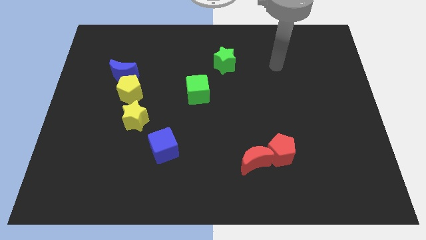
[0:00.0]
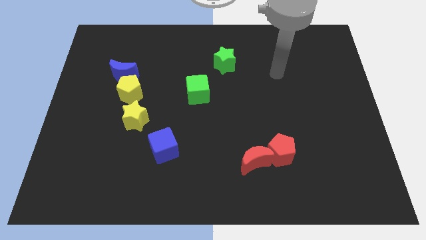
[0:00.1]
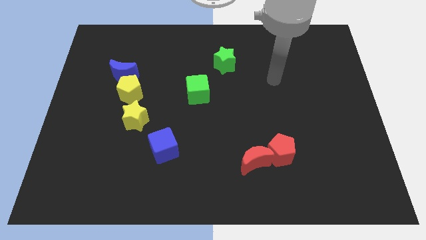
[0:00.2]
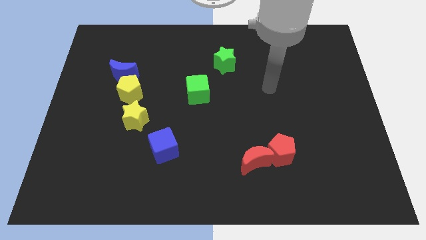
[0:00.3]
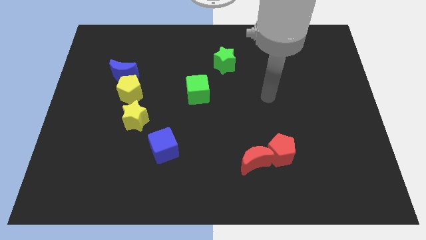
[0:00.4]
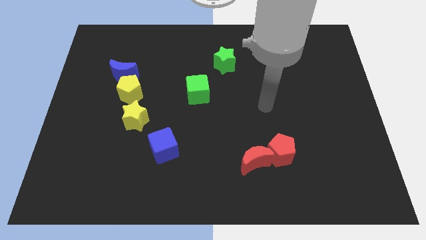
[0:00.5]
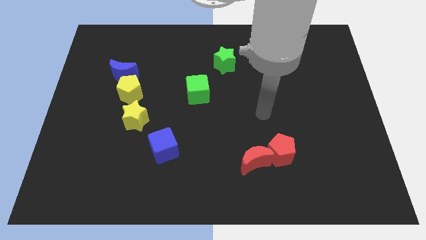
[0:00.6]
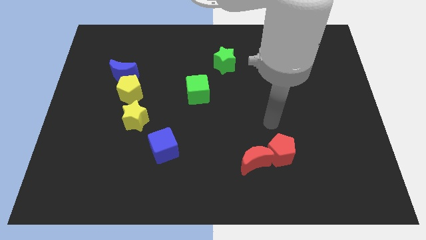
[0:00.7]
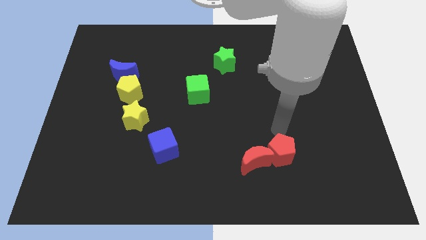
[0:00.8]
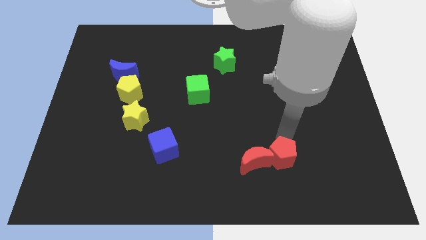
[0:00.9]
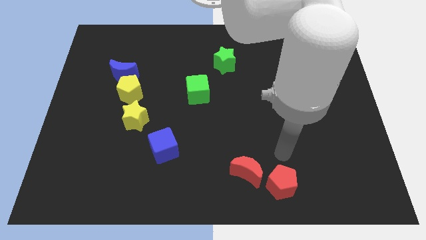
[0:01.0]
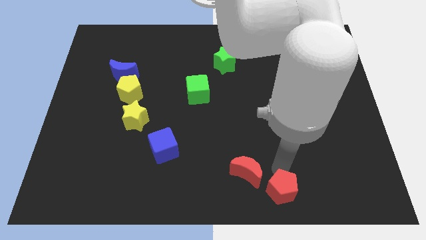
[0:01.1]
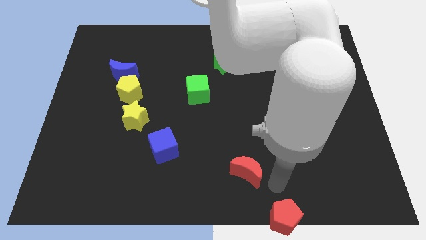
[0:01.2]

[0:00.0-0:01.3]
move the red moon away from the red pentagon

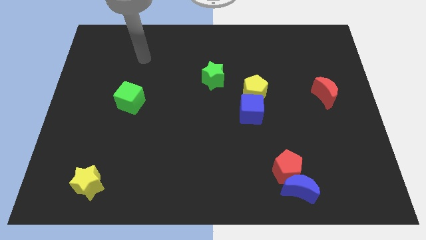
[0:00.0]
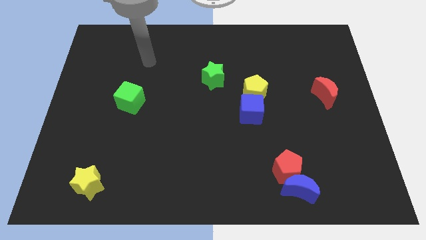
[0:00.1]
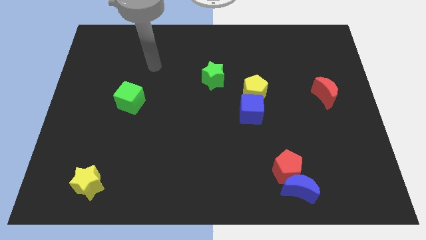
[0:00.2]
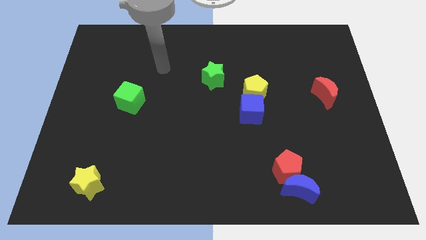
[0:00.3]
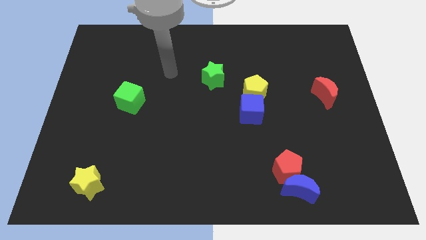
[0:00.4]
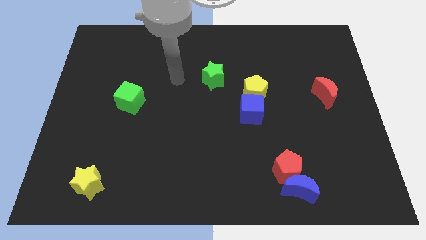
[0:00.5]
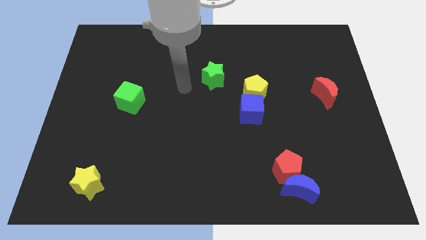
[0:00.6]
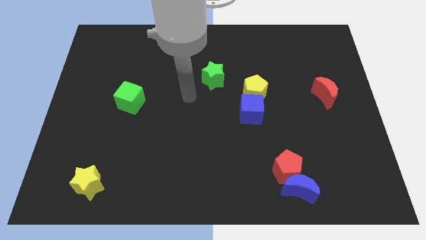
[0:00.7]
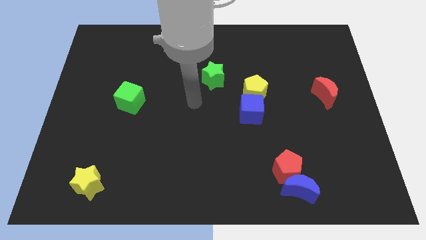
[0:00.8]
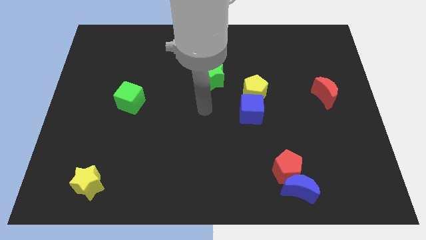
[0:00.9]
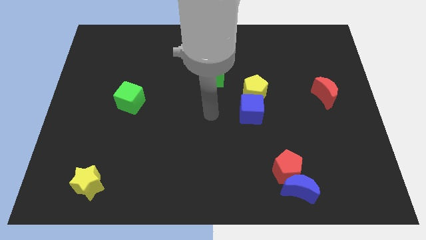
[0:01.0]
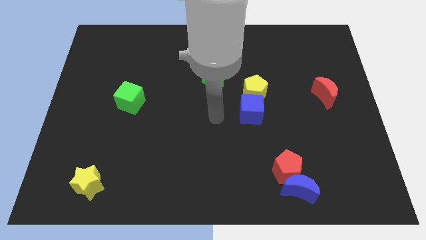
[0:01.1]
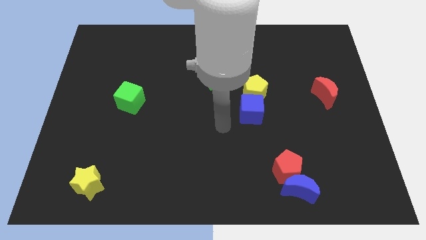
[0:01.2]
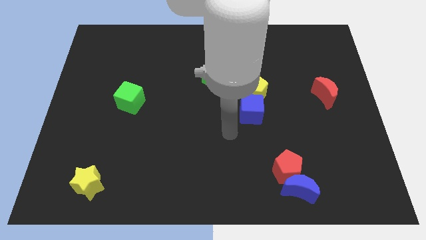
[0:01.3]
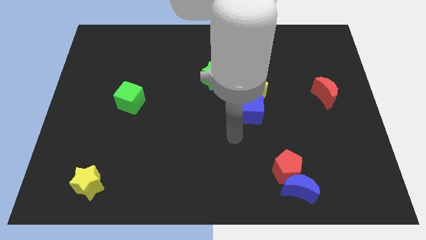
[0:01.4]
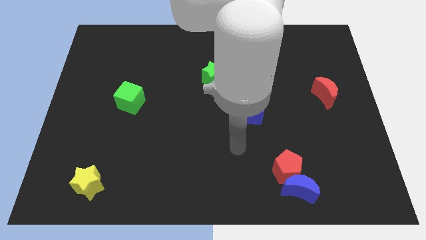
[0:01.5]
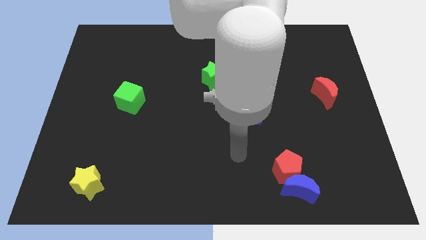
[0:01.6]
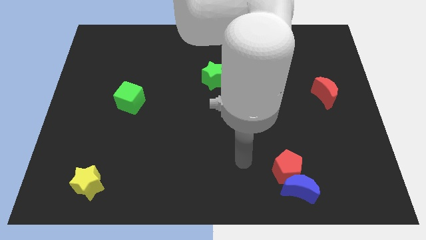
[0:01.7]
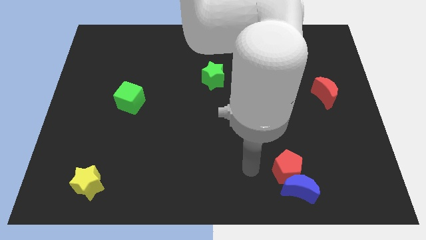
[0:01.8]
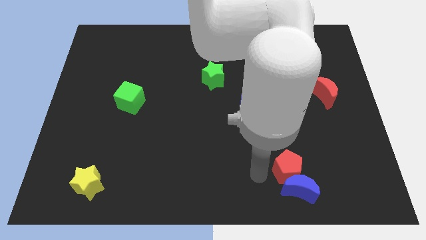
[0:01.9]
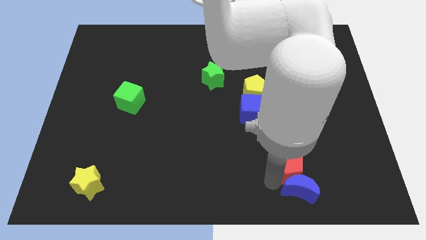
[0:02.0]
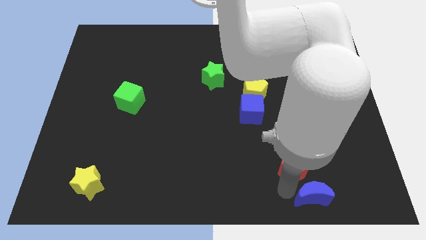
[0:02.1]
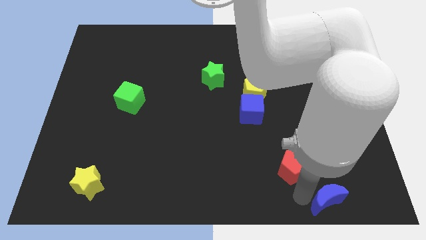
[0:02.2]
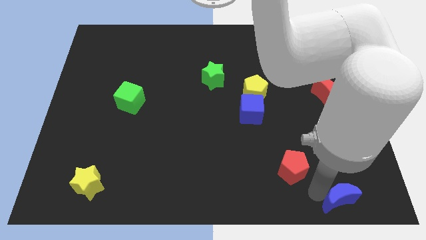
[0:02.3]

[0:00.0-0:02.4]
pull the red pentagon apart from the blue moon

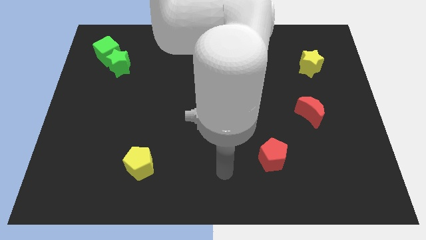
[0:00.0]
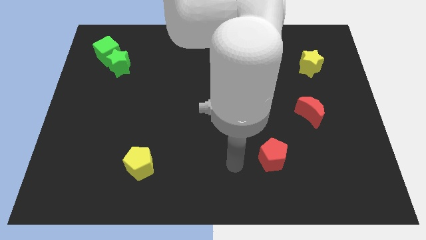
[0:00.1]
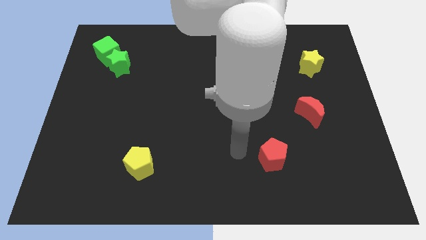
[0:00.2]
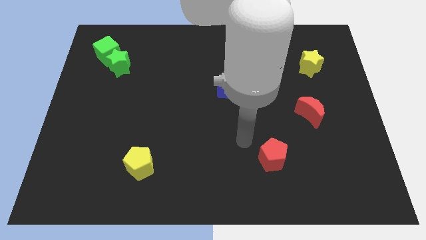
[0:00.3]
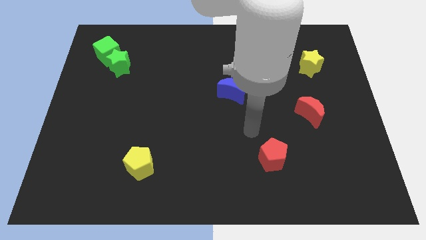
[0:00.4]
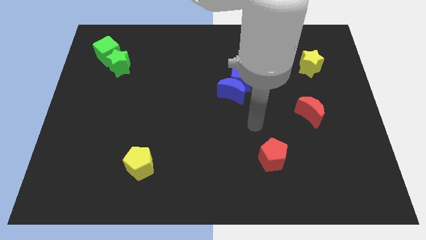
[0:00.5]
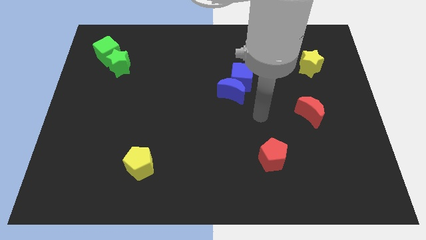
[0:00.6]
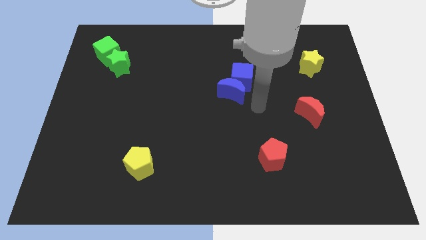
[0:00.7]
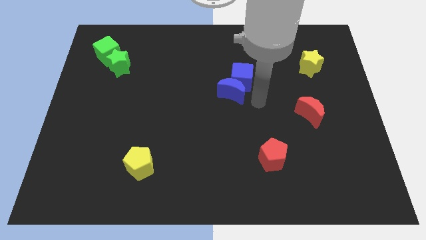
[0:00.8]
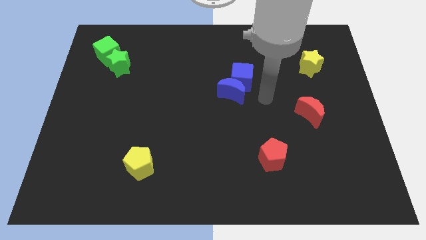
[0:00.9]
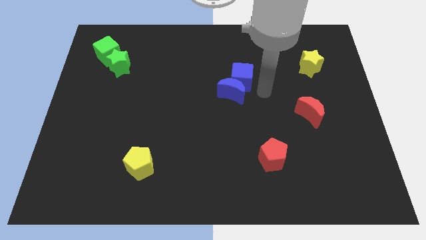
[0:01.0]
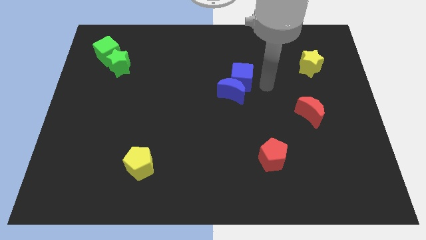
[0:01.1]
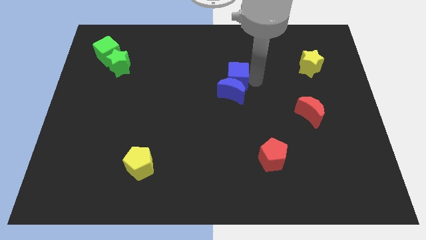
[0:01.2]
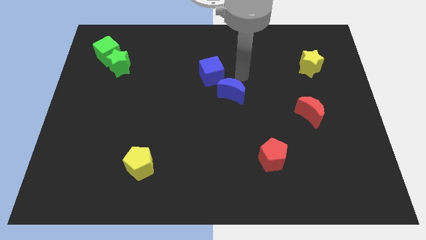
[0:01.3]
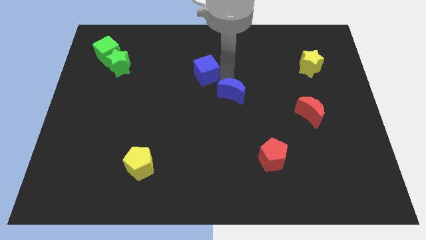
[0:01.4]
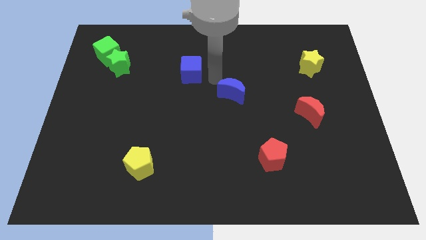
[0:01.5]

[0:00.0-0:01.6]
move the blue moon away from the blue cube

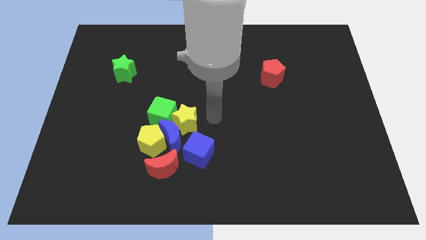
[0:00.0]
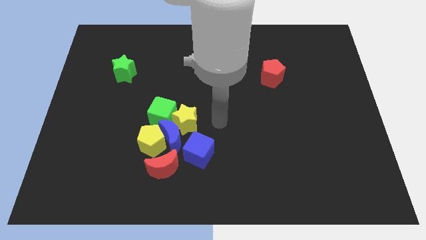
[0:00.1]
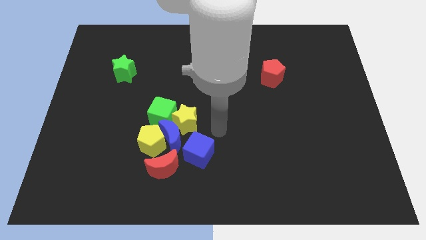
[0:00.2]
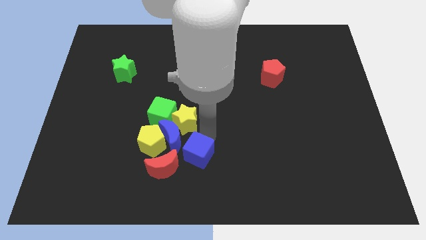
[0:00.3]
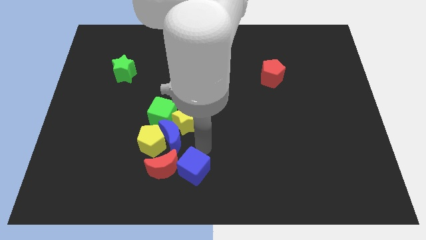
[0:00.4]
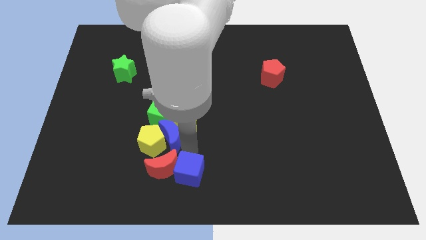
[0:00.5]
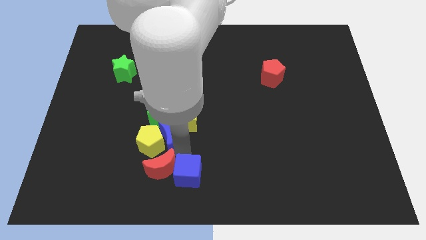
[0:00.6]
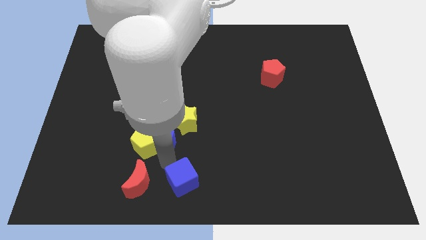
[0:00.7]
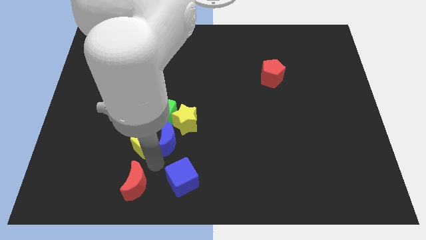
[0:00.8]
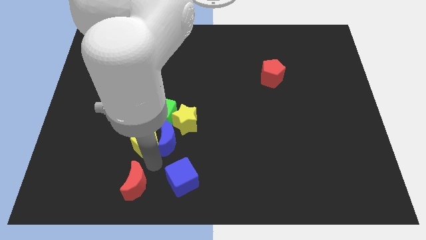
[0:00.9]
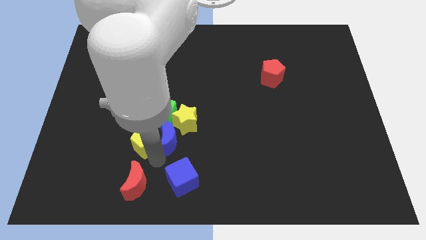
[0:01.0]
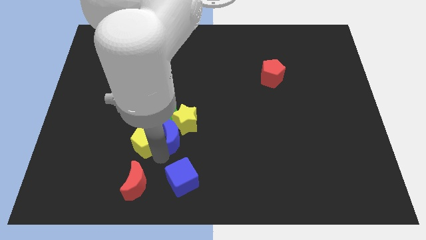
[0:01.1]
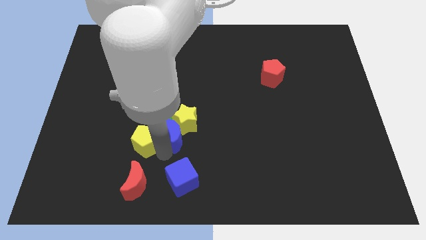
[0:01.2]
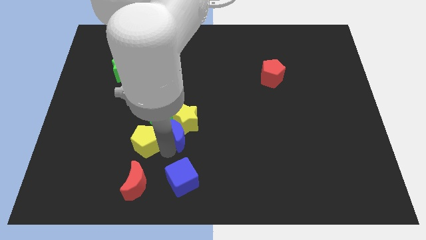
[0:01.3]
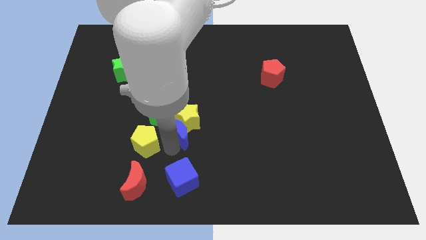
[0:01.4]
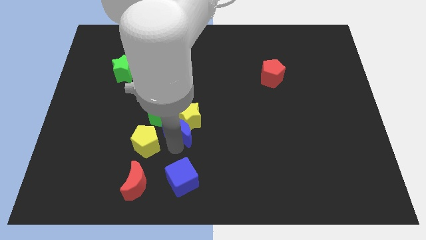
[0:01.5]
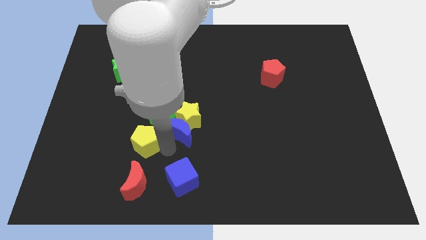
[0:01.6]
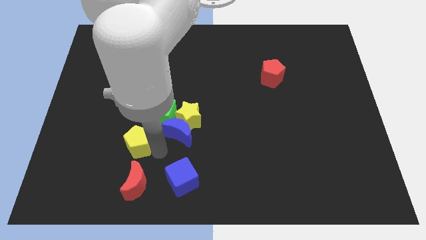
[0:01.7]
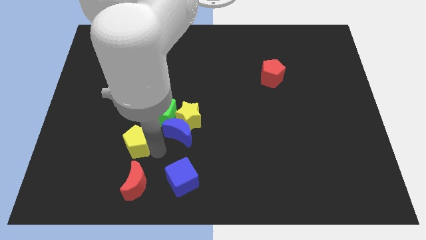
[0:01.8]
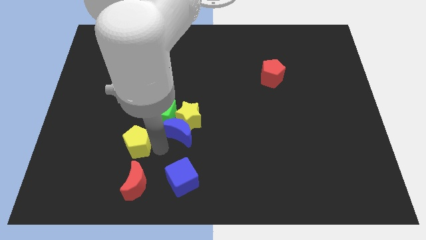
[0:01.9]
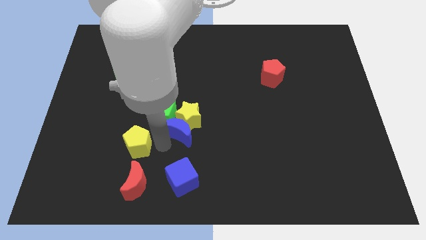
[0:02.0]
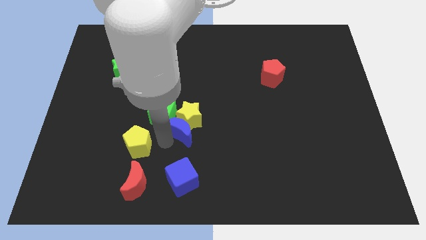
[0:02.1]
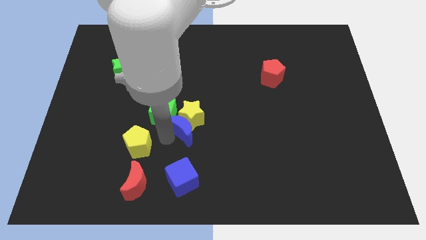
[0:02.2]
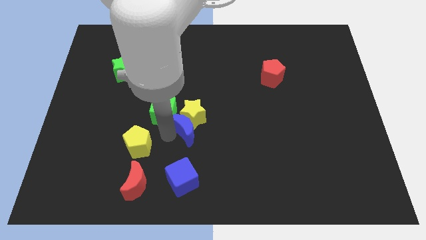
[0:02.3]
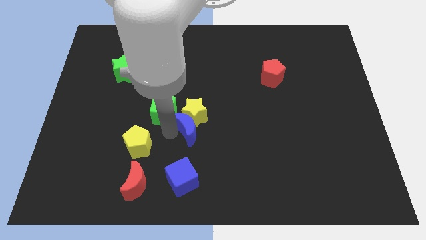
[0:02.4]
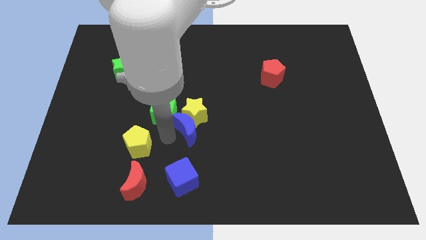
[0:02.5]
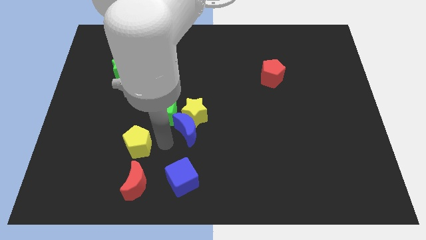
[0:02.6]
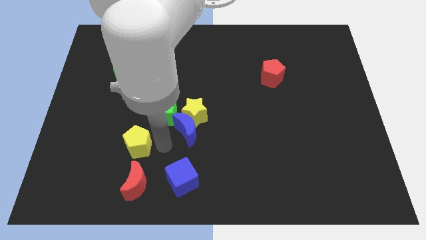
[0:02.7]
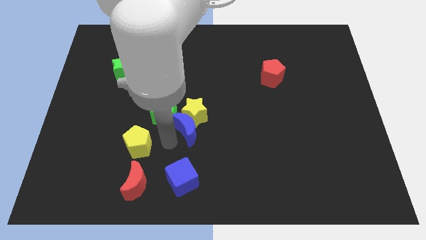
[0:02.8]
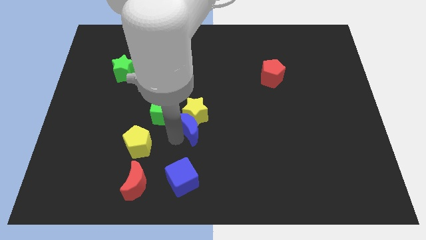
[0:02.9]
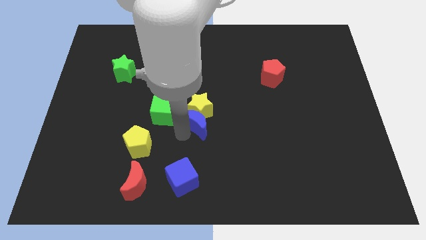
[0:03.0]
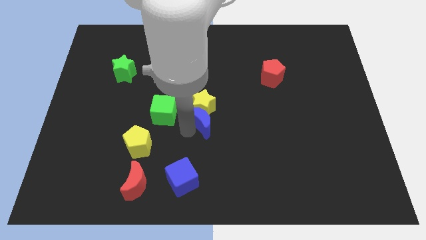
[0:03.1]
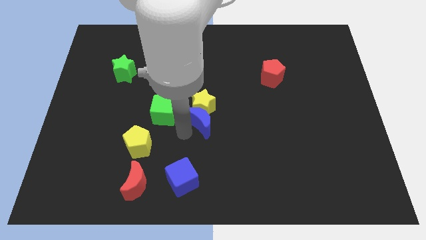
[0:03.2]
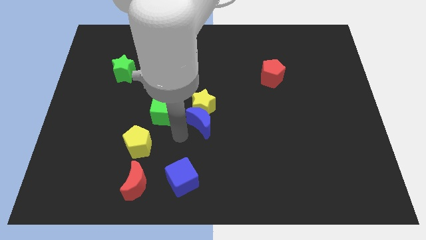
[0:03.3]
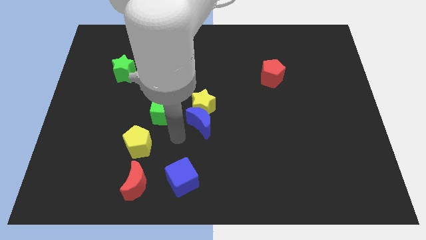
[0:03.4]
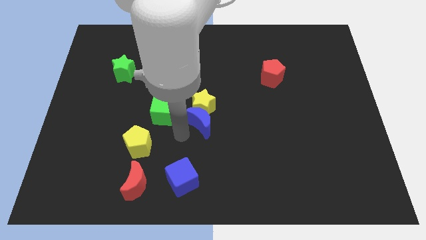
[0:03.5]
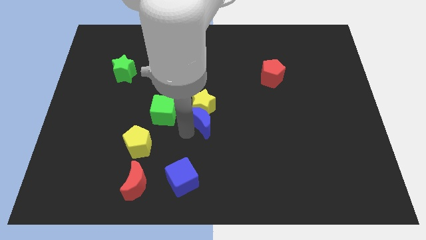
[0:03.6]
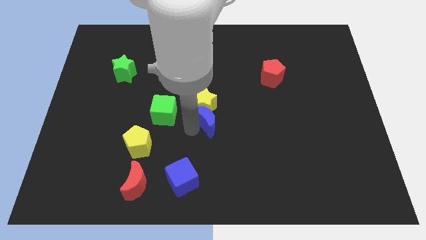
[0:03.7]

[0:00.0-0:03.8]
move the blue moon away from the group

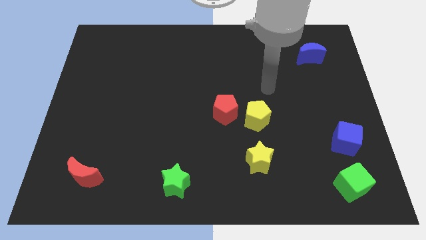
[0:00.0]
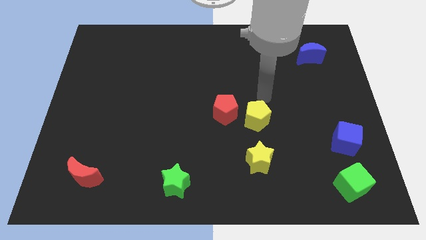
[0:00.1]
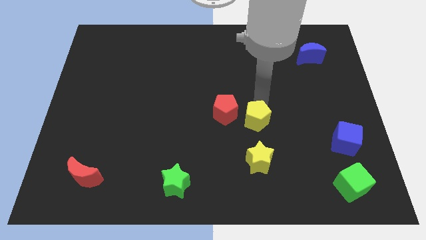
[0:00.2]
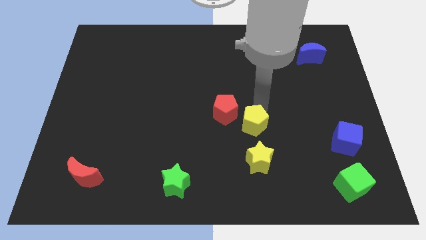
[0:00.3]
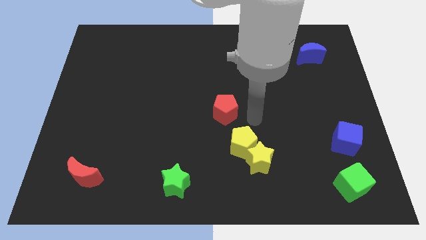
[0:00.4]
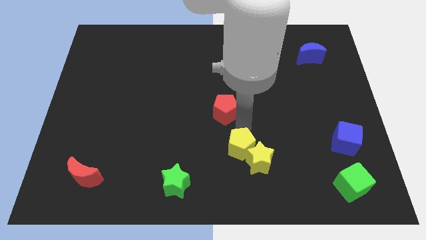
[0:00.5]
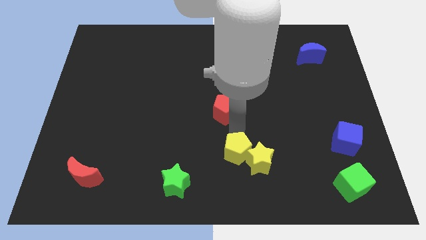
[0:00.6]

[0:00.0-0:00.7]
move the red pentagon away from the yellow pentagon
